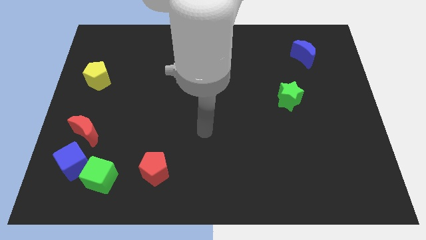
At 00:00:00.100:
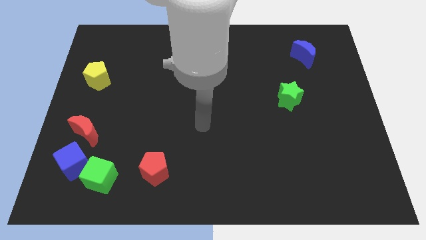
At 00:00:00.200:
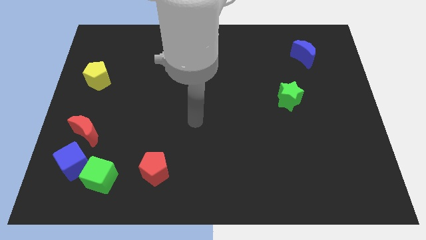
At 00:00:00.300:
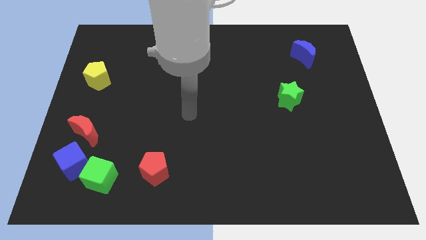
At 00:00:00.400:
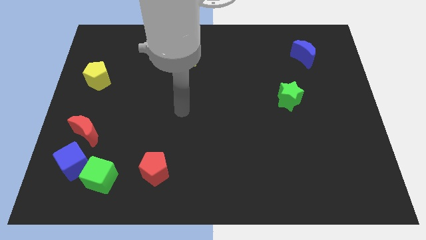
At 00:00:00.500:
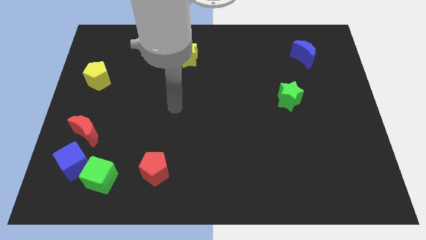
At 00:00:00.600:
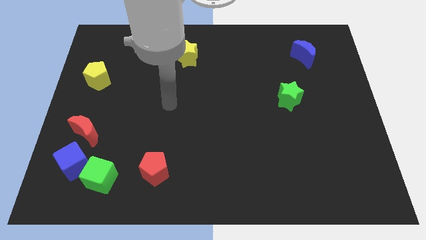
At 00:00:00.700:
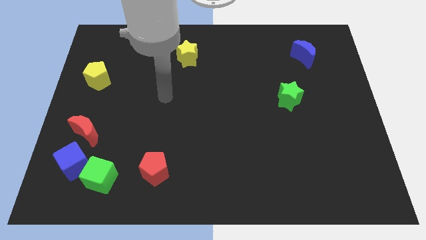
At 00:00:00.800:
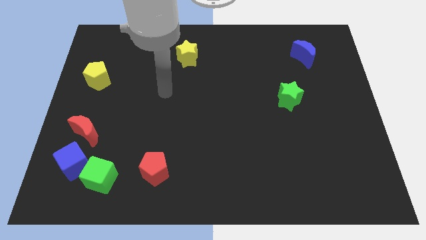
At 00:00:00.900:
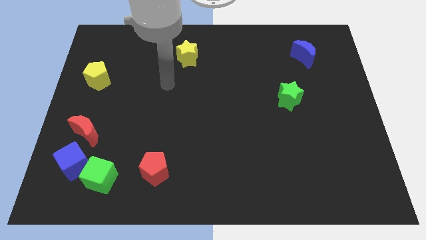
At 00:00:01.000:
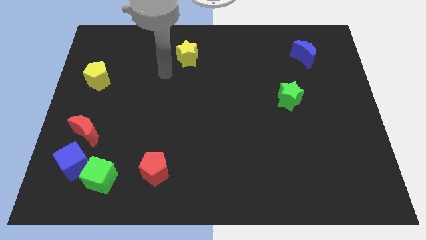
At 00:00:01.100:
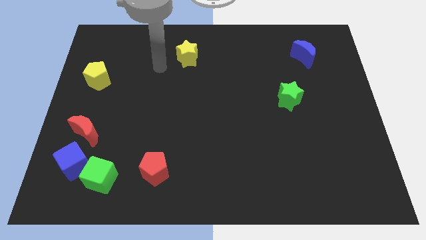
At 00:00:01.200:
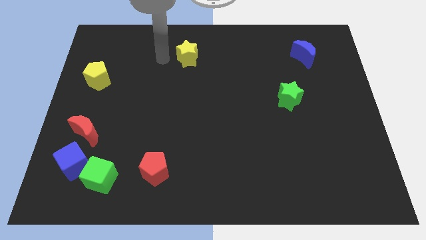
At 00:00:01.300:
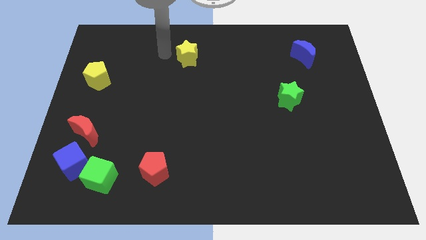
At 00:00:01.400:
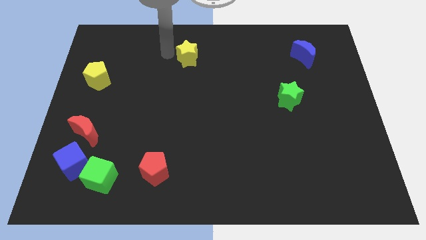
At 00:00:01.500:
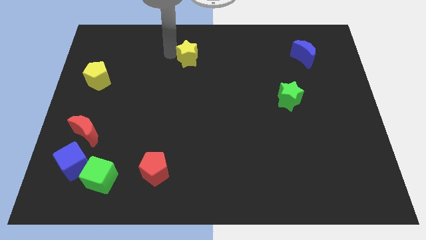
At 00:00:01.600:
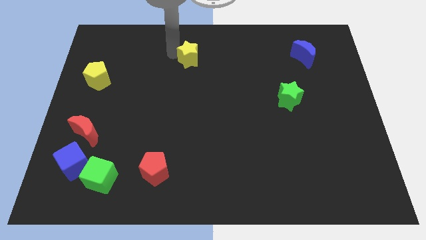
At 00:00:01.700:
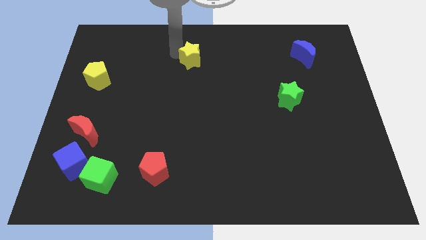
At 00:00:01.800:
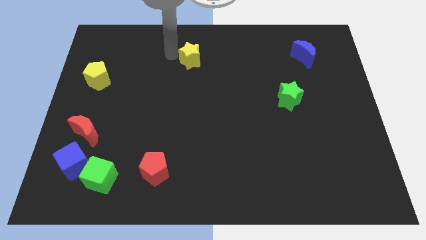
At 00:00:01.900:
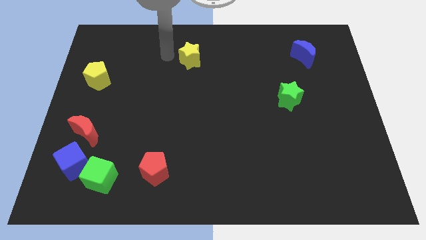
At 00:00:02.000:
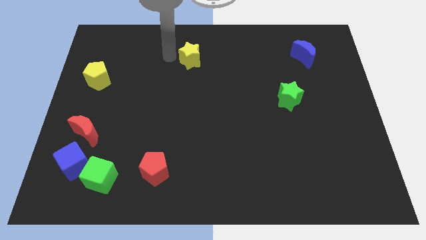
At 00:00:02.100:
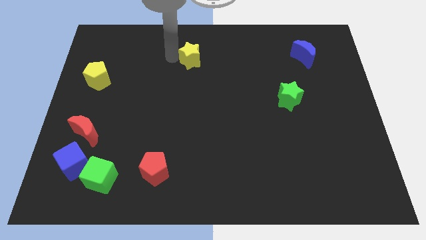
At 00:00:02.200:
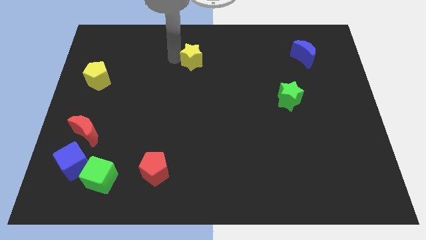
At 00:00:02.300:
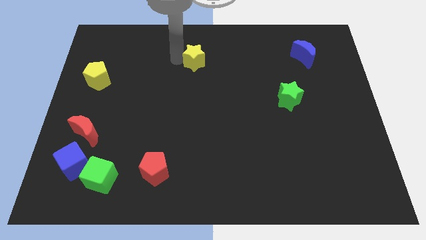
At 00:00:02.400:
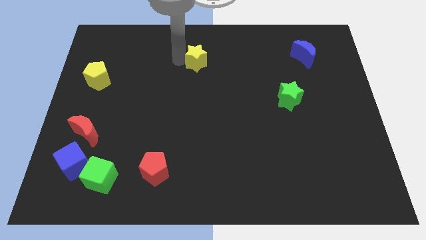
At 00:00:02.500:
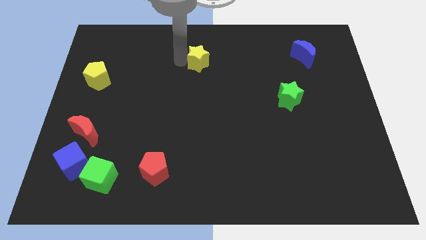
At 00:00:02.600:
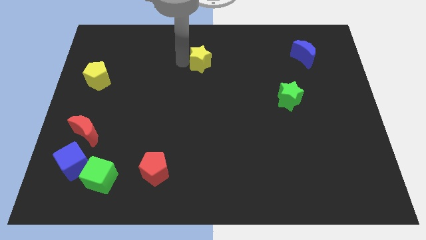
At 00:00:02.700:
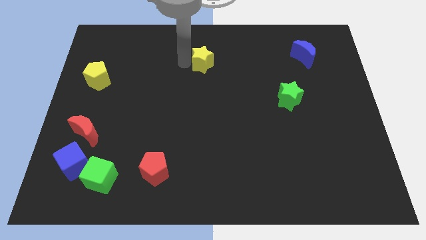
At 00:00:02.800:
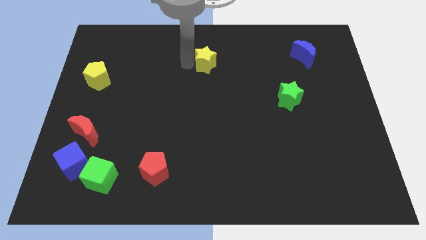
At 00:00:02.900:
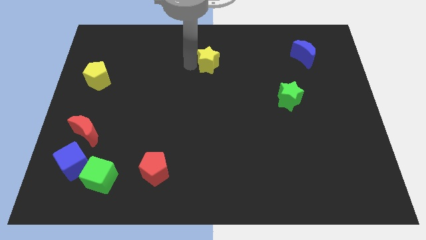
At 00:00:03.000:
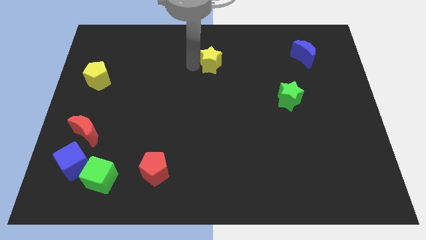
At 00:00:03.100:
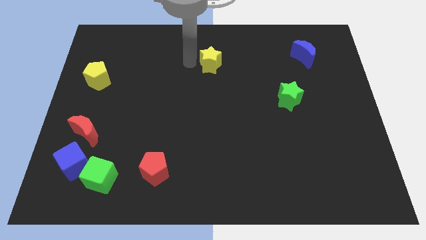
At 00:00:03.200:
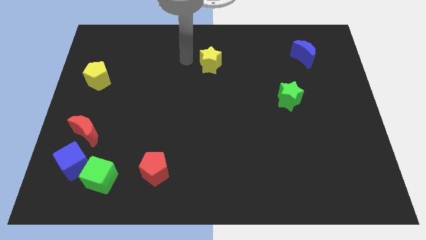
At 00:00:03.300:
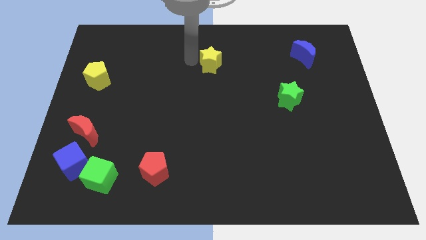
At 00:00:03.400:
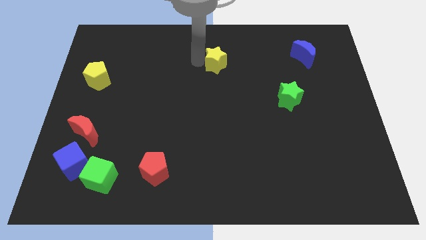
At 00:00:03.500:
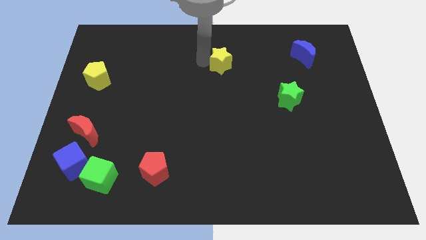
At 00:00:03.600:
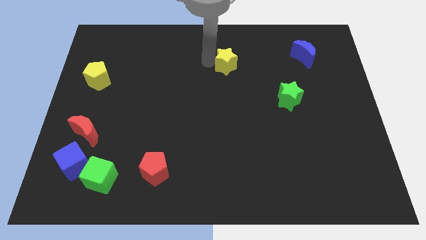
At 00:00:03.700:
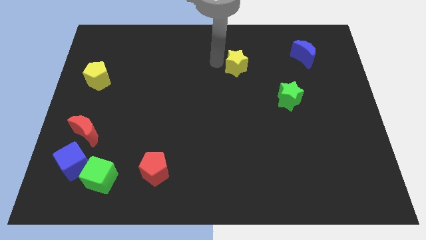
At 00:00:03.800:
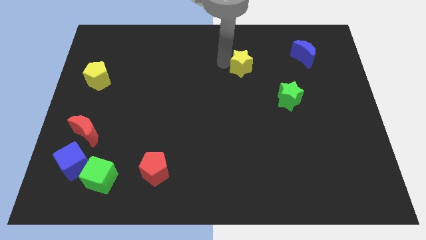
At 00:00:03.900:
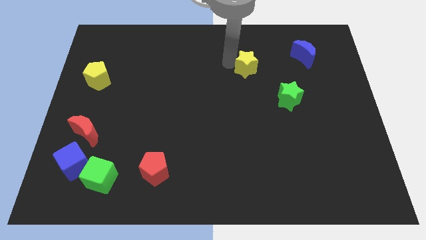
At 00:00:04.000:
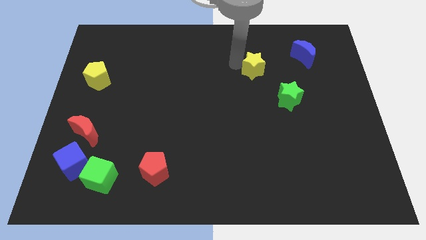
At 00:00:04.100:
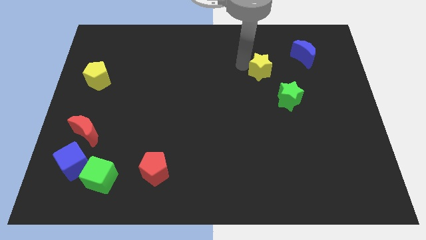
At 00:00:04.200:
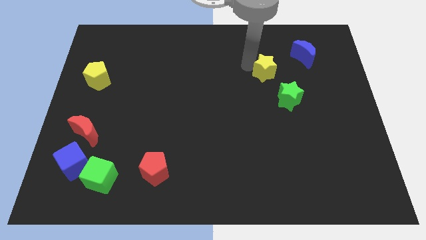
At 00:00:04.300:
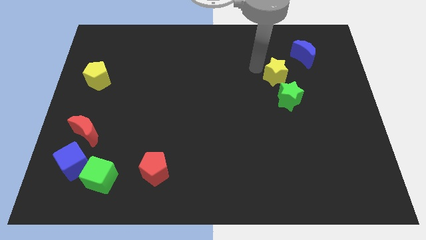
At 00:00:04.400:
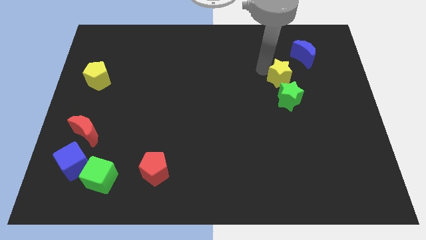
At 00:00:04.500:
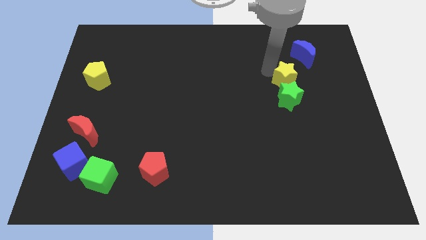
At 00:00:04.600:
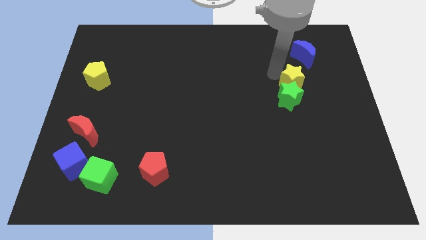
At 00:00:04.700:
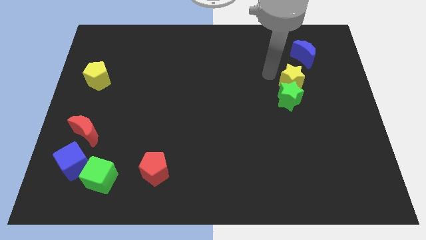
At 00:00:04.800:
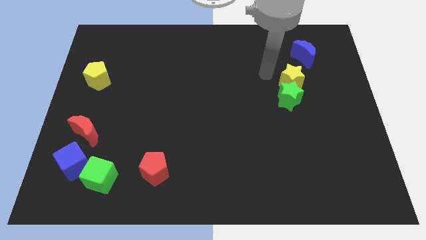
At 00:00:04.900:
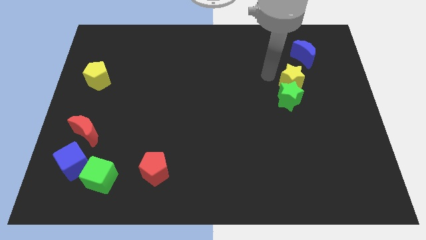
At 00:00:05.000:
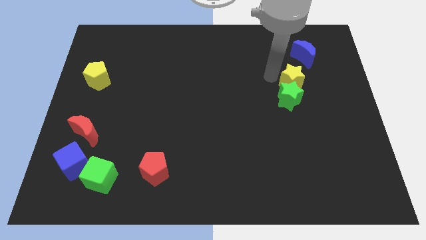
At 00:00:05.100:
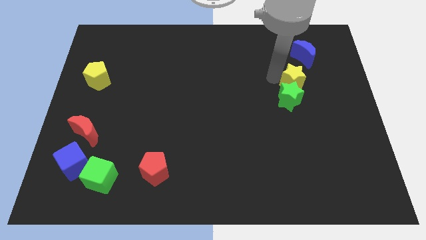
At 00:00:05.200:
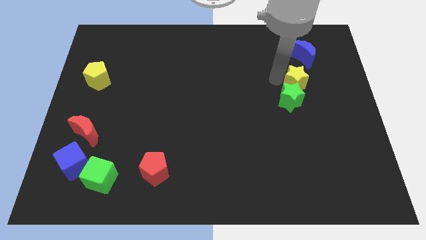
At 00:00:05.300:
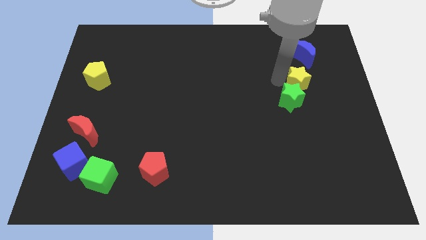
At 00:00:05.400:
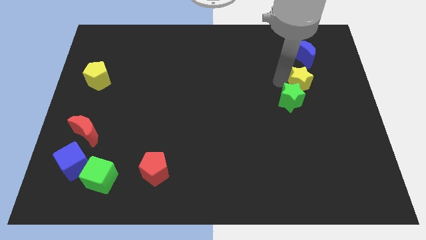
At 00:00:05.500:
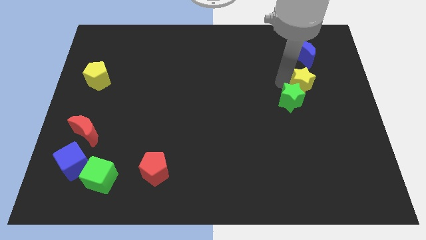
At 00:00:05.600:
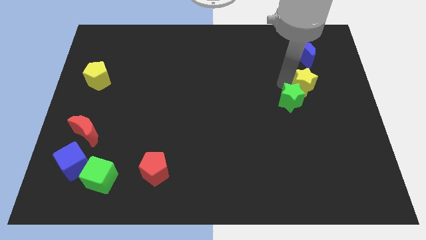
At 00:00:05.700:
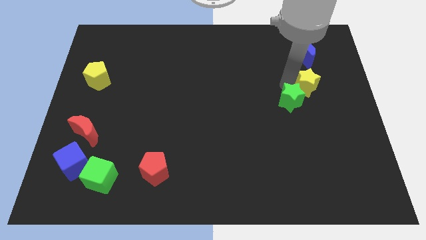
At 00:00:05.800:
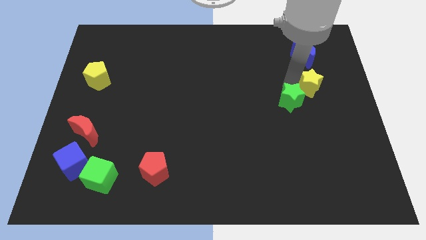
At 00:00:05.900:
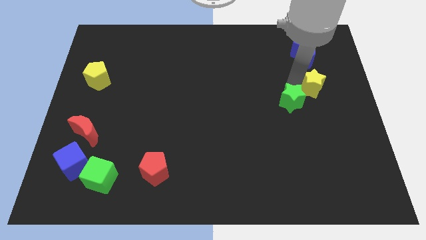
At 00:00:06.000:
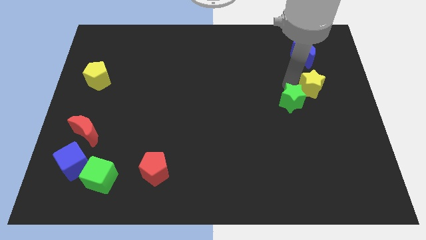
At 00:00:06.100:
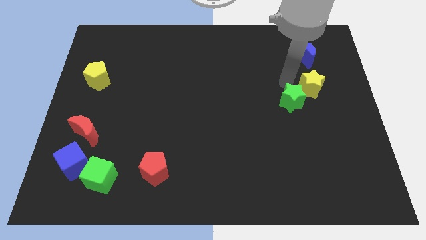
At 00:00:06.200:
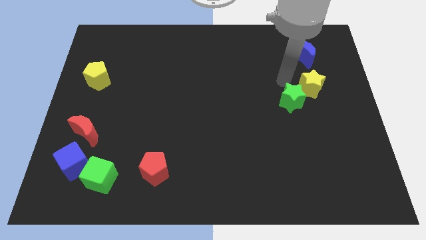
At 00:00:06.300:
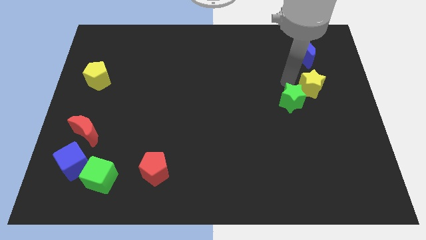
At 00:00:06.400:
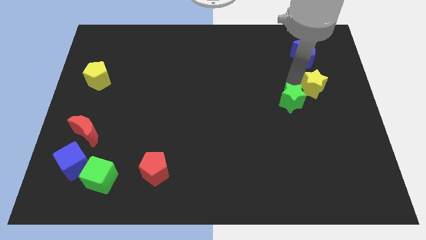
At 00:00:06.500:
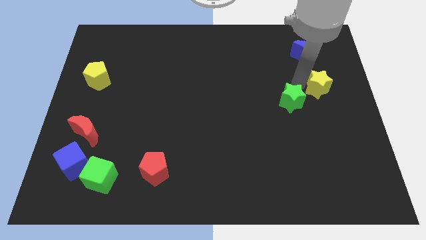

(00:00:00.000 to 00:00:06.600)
move the yellow star to the right side of the board
